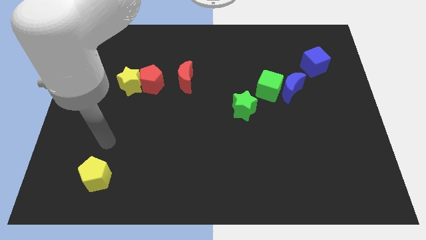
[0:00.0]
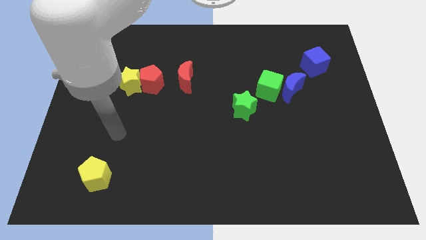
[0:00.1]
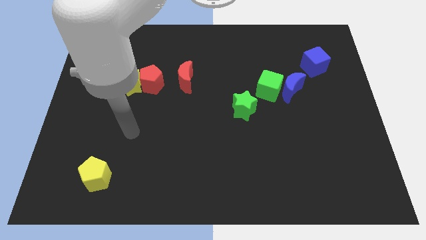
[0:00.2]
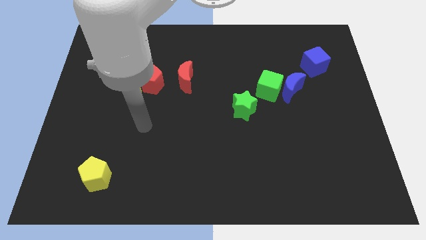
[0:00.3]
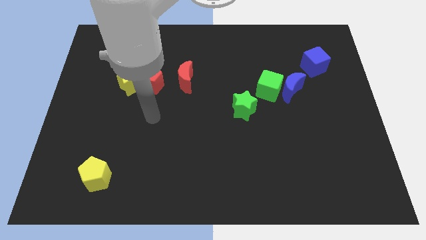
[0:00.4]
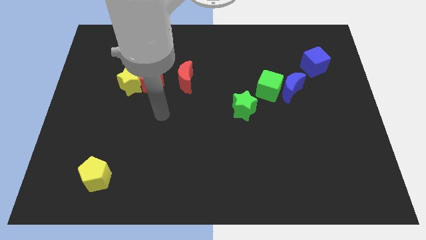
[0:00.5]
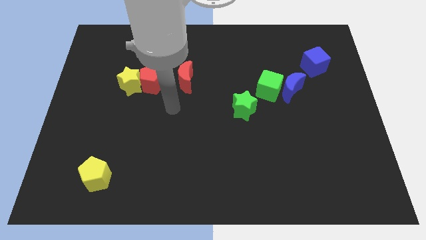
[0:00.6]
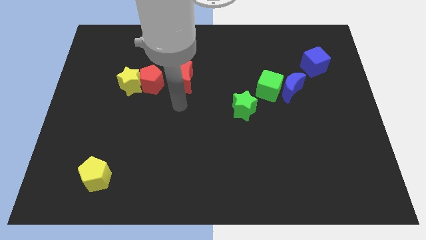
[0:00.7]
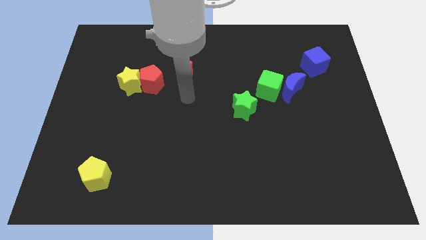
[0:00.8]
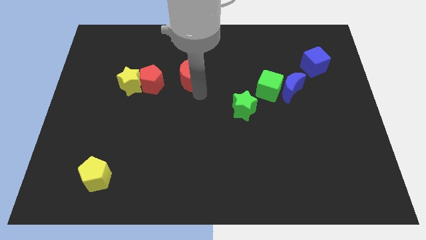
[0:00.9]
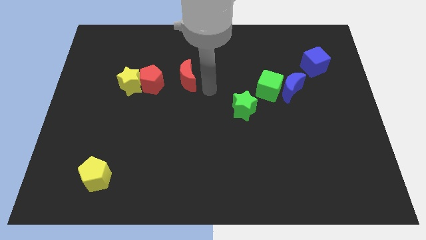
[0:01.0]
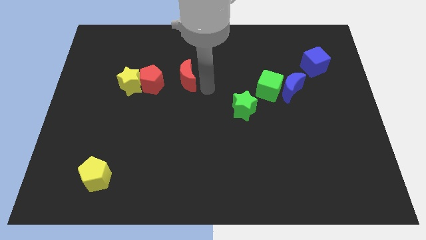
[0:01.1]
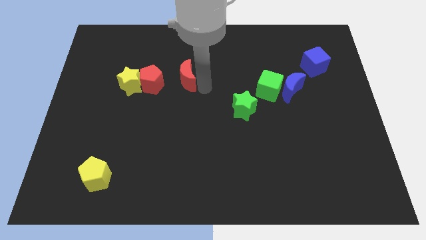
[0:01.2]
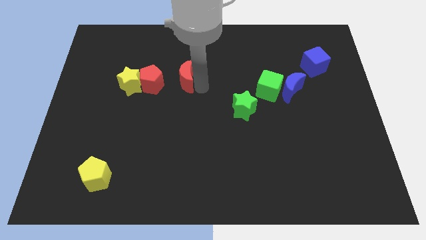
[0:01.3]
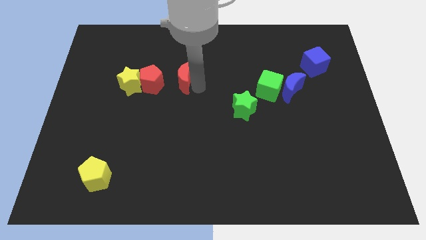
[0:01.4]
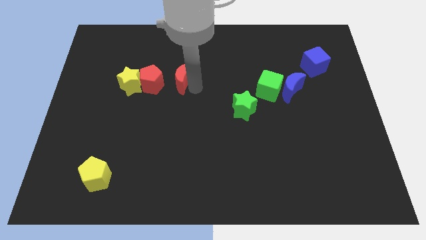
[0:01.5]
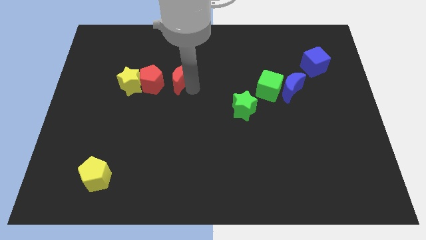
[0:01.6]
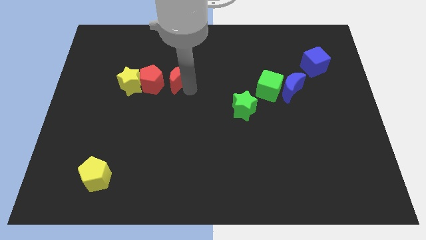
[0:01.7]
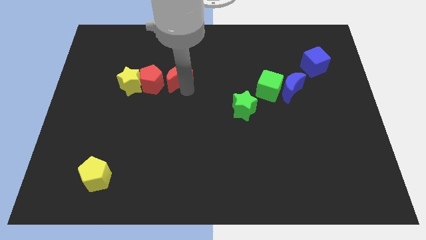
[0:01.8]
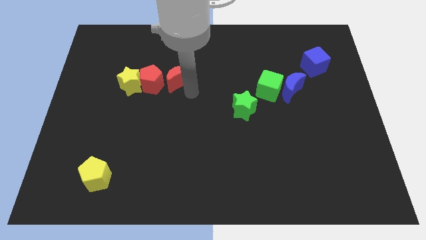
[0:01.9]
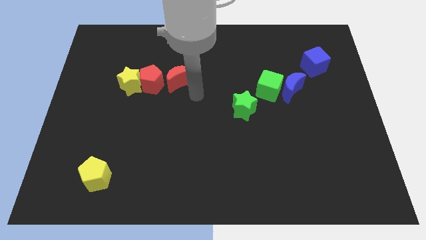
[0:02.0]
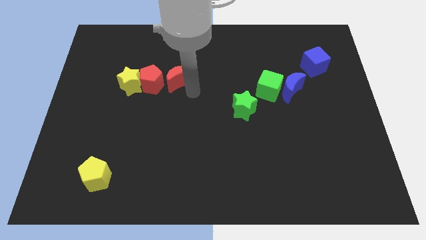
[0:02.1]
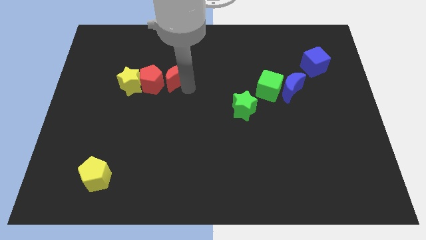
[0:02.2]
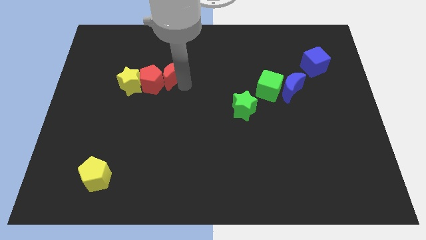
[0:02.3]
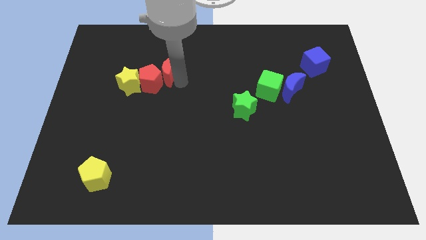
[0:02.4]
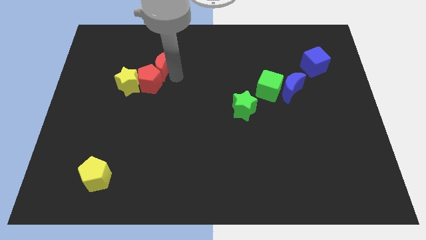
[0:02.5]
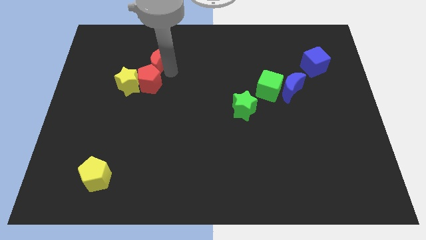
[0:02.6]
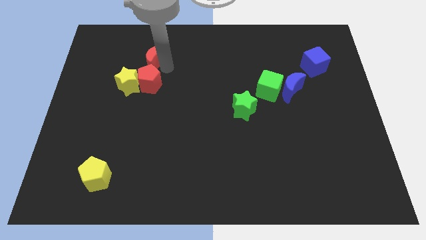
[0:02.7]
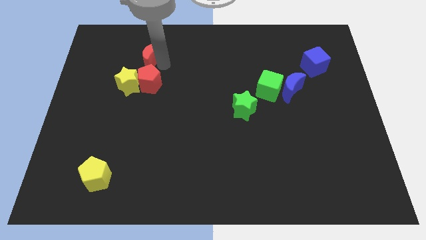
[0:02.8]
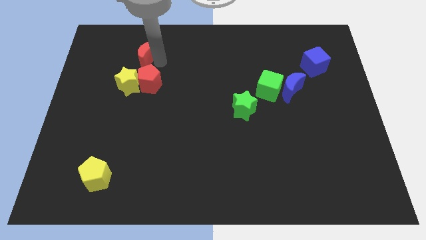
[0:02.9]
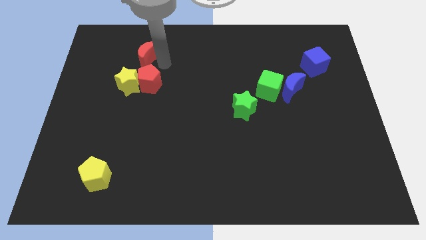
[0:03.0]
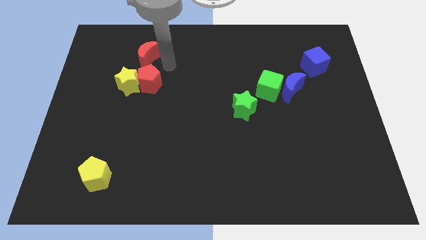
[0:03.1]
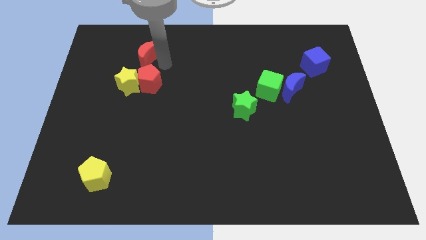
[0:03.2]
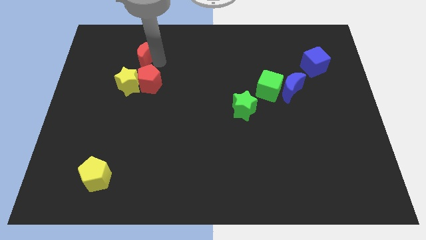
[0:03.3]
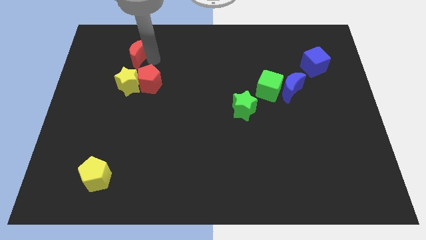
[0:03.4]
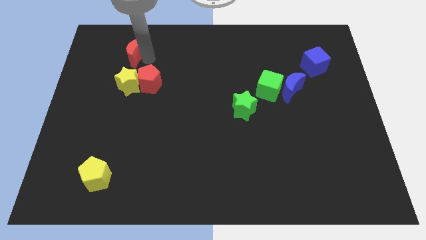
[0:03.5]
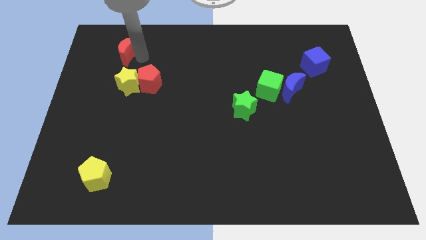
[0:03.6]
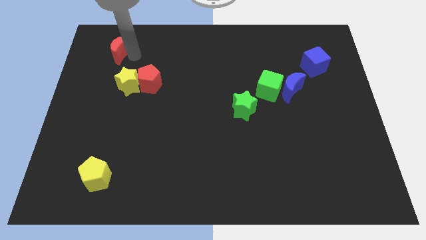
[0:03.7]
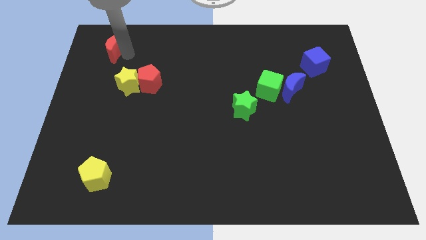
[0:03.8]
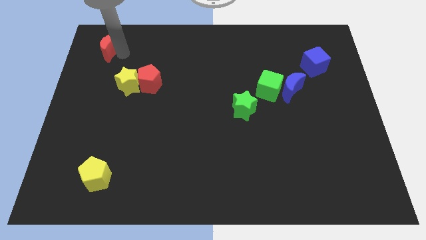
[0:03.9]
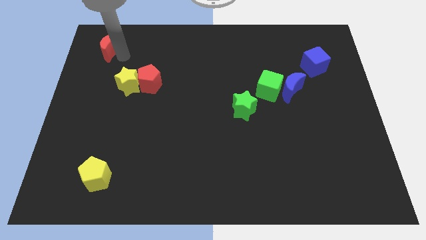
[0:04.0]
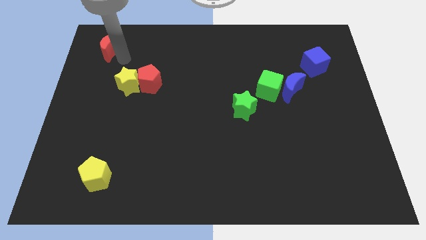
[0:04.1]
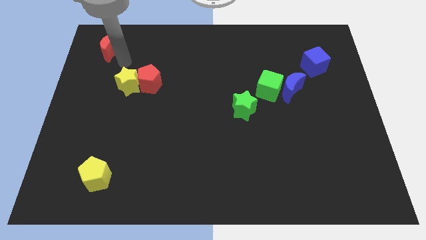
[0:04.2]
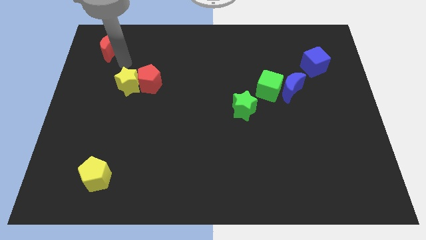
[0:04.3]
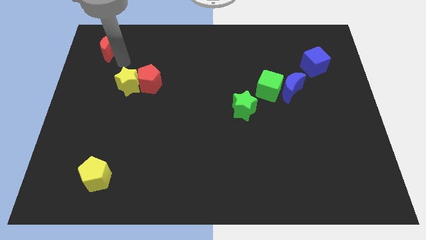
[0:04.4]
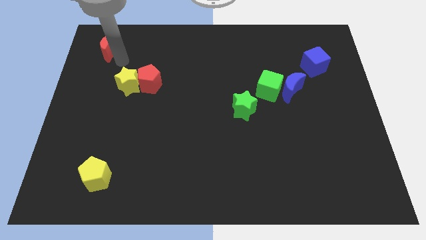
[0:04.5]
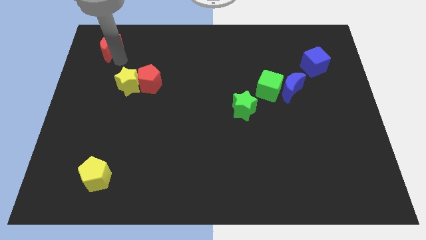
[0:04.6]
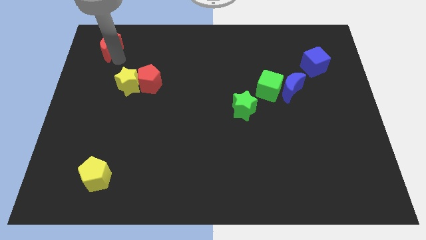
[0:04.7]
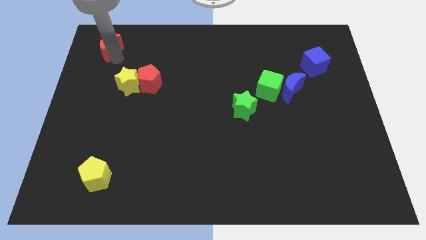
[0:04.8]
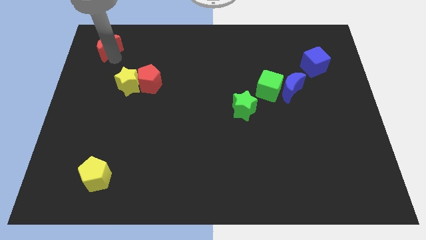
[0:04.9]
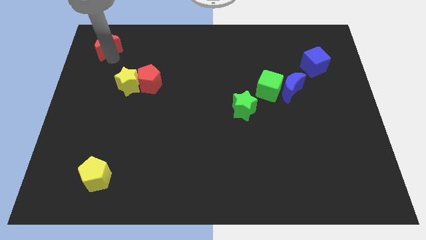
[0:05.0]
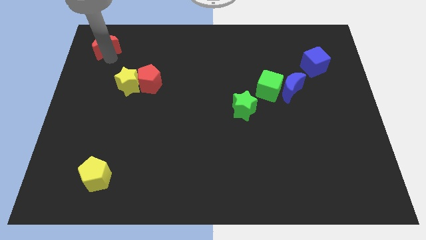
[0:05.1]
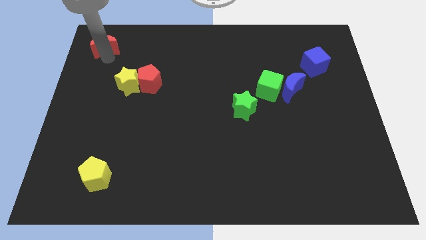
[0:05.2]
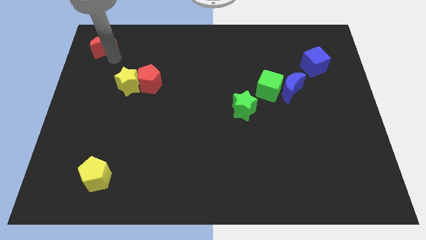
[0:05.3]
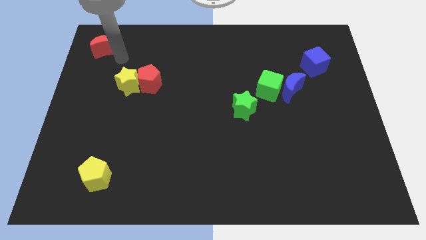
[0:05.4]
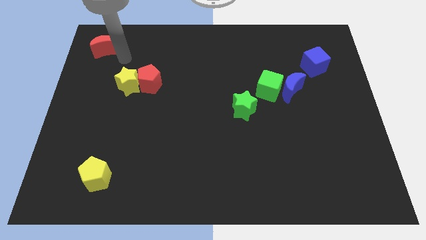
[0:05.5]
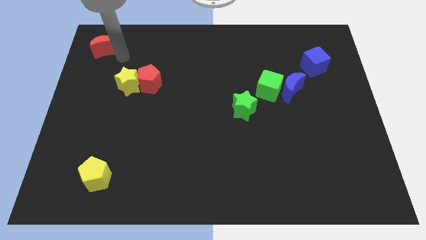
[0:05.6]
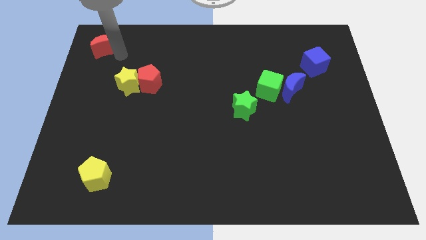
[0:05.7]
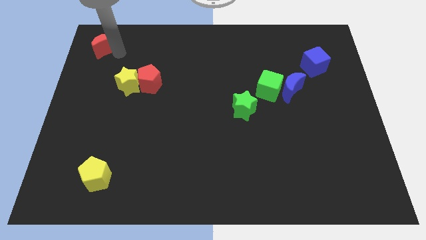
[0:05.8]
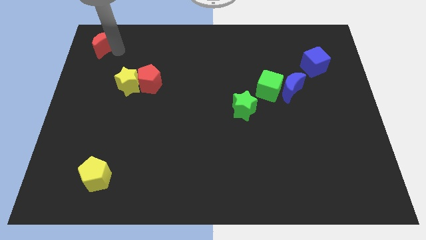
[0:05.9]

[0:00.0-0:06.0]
put the red moon to the top left corner

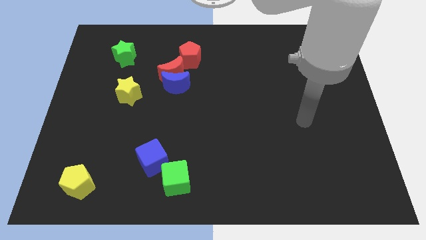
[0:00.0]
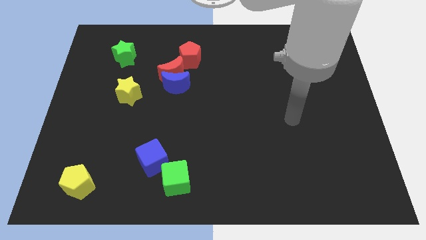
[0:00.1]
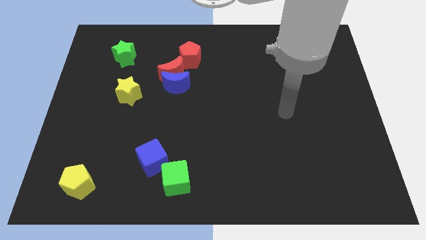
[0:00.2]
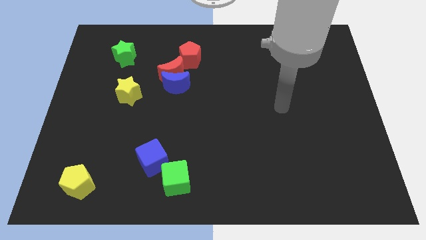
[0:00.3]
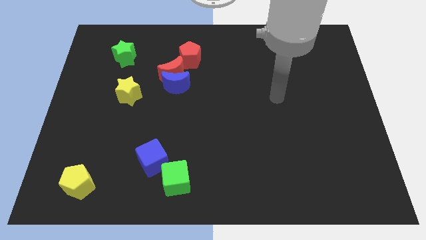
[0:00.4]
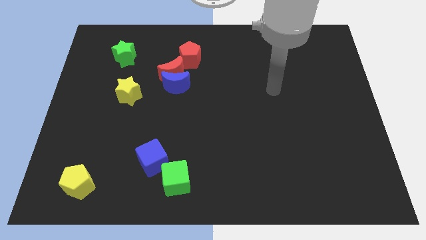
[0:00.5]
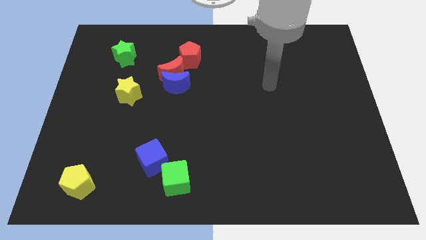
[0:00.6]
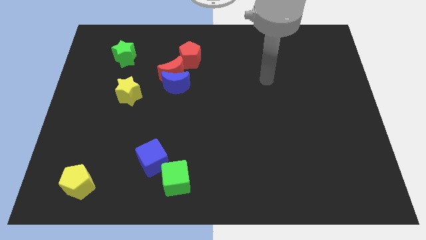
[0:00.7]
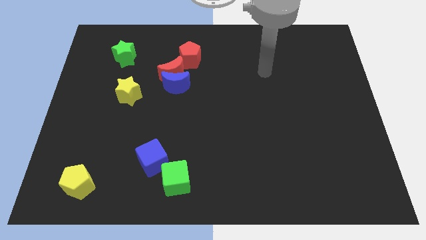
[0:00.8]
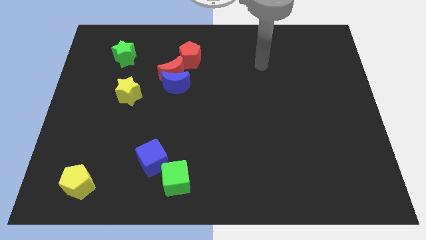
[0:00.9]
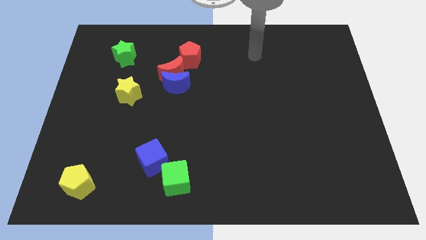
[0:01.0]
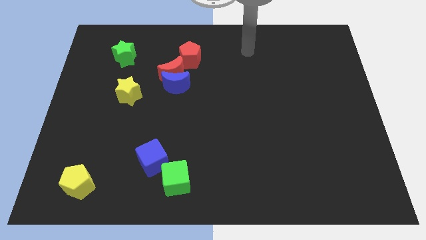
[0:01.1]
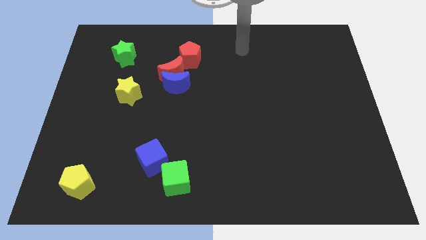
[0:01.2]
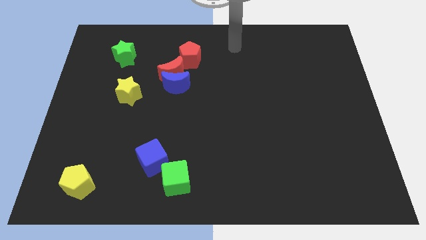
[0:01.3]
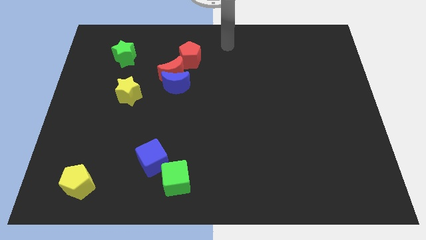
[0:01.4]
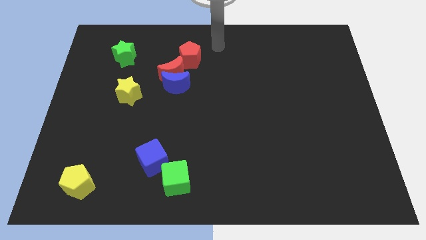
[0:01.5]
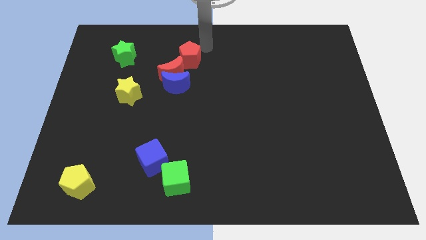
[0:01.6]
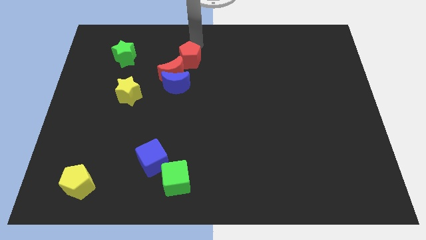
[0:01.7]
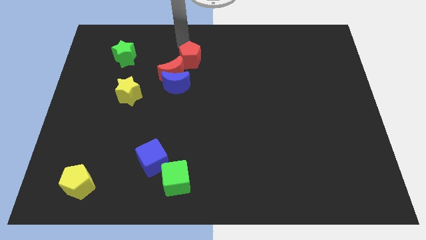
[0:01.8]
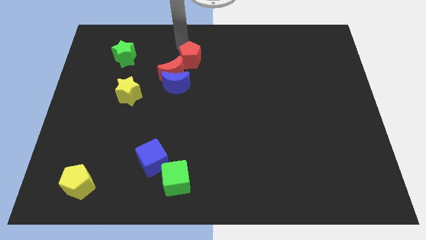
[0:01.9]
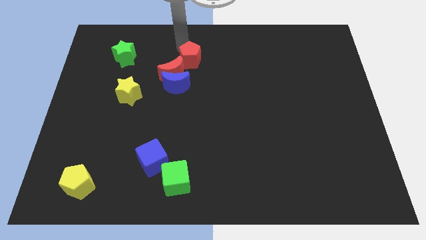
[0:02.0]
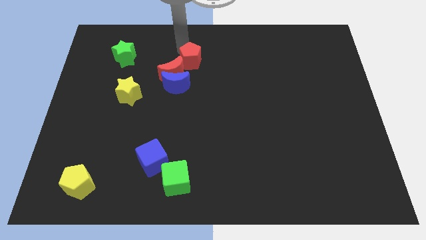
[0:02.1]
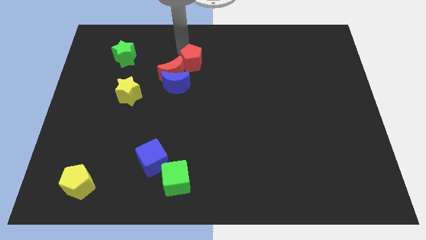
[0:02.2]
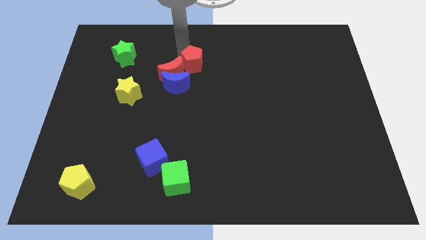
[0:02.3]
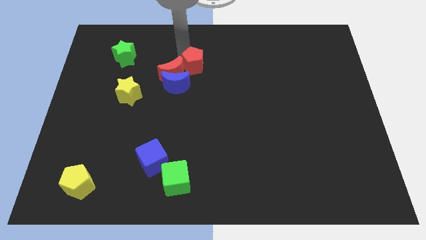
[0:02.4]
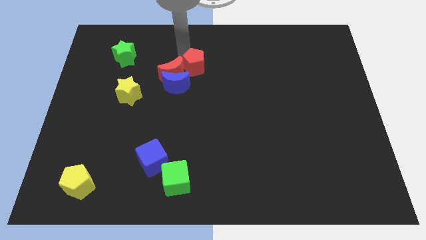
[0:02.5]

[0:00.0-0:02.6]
push the red pentagon to the middle
